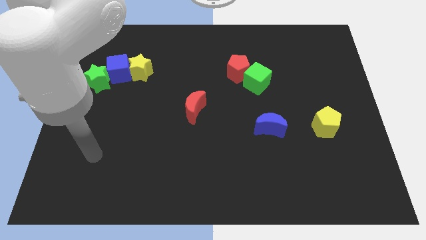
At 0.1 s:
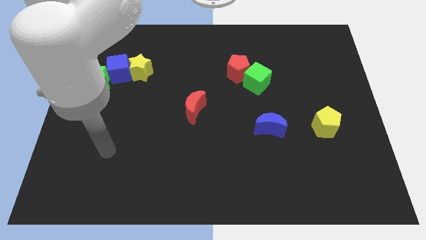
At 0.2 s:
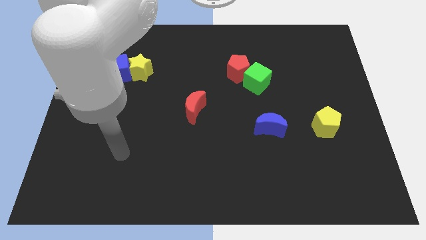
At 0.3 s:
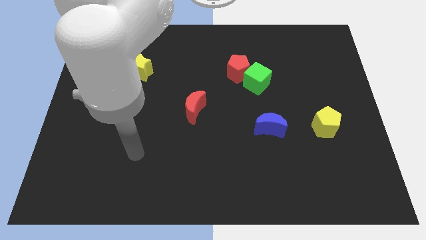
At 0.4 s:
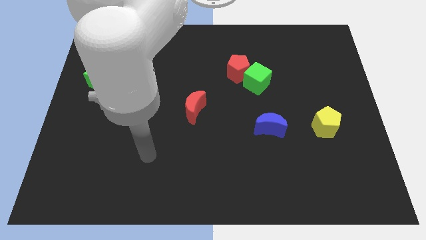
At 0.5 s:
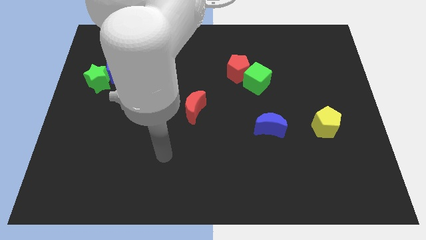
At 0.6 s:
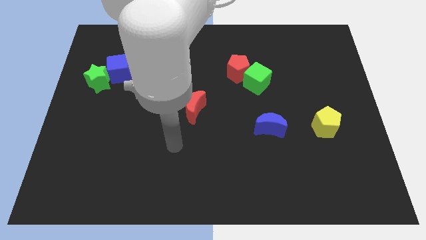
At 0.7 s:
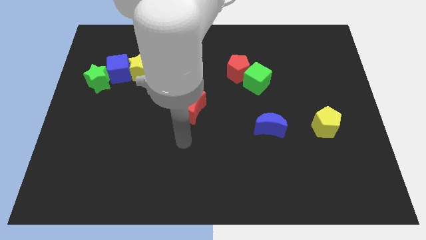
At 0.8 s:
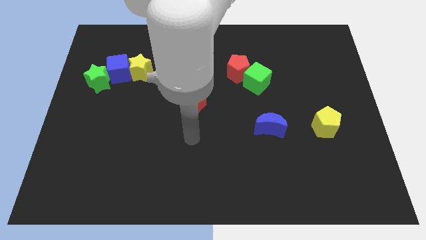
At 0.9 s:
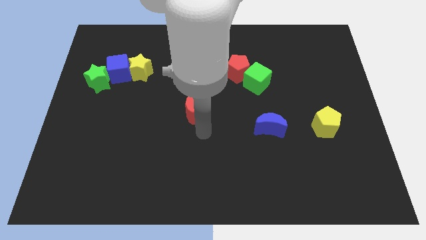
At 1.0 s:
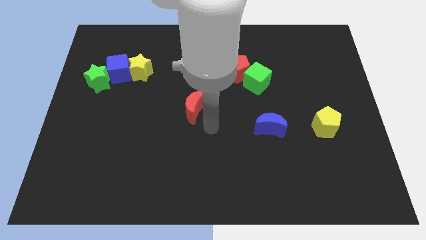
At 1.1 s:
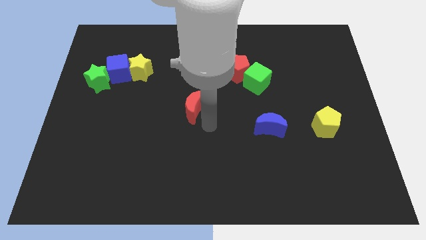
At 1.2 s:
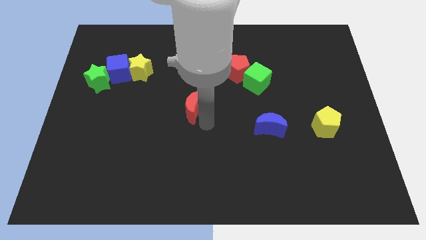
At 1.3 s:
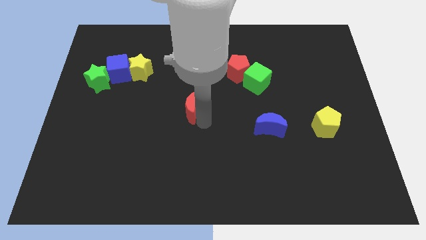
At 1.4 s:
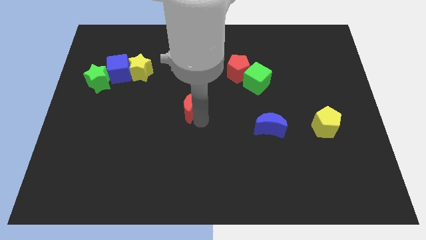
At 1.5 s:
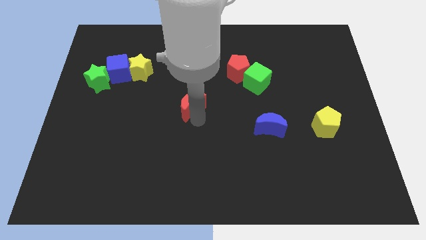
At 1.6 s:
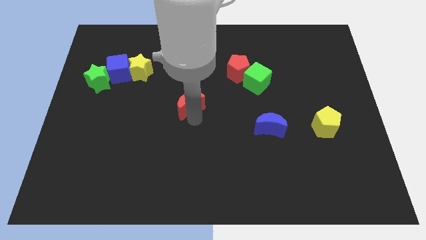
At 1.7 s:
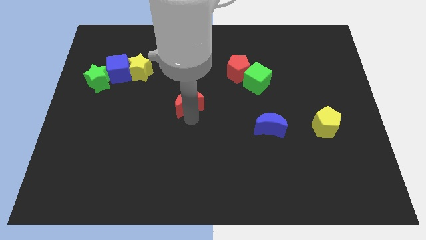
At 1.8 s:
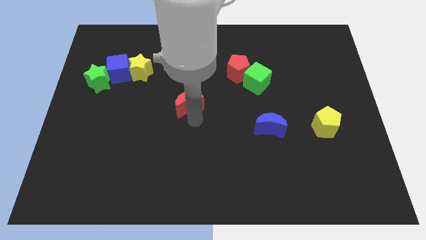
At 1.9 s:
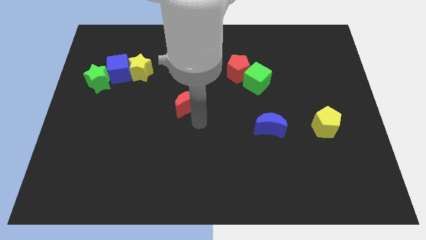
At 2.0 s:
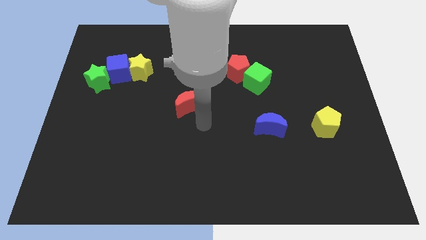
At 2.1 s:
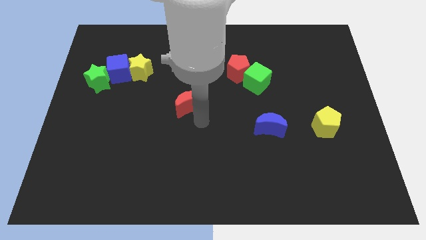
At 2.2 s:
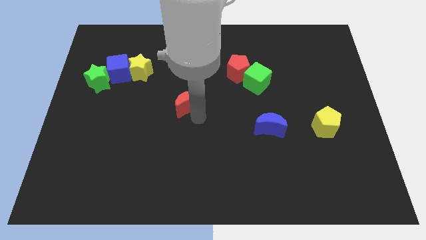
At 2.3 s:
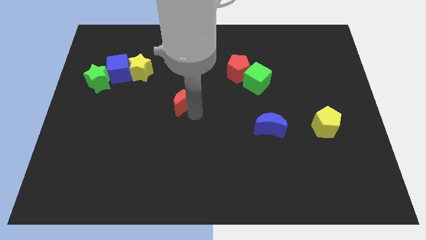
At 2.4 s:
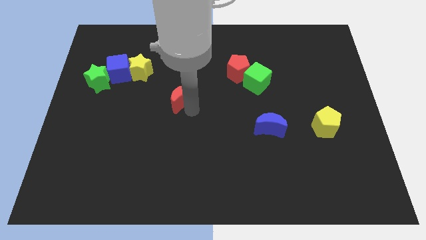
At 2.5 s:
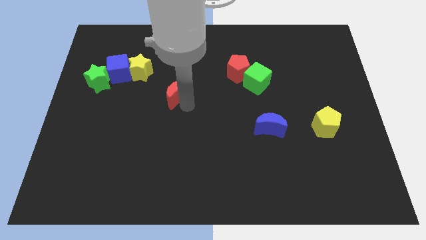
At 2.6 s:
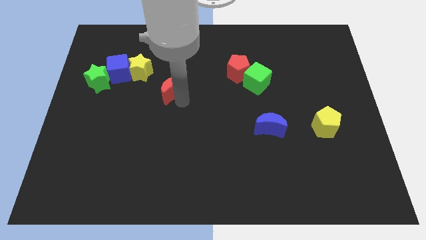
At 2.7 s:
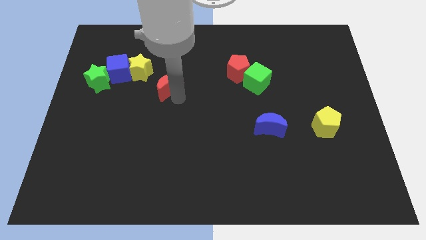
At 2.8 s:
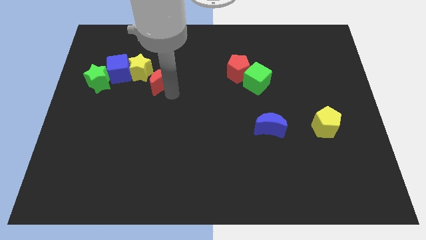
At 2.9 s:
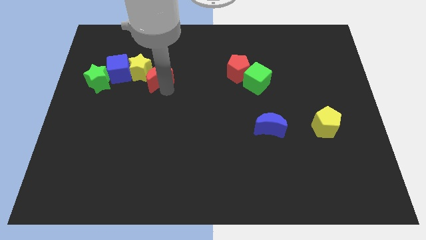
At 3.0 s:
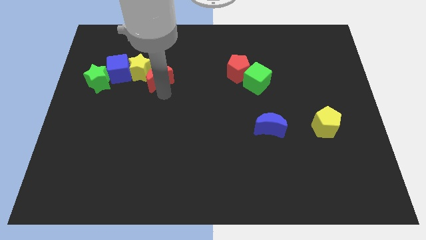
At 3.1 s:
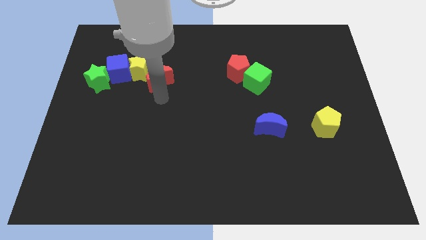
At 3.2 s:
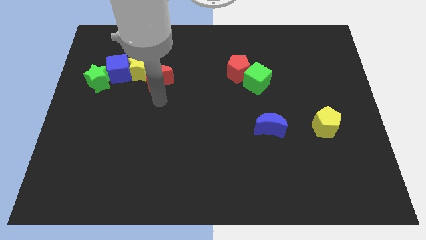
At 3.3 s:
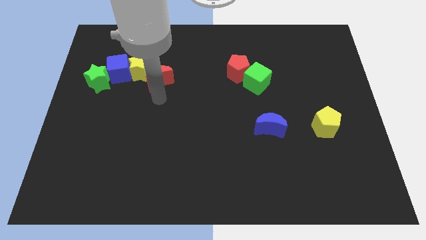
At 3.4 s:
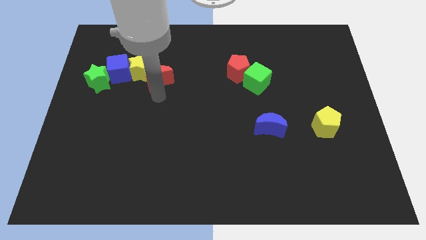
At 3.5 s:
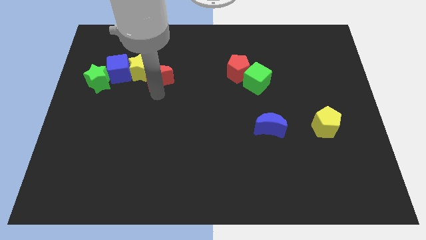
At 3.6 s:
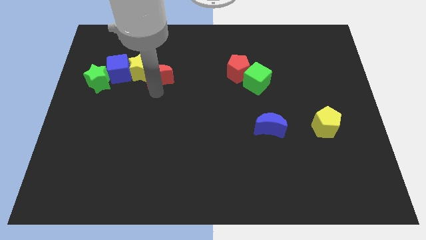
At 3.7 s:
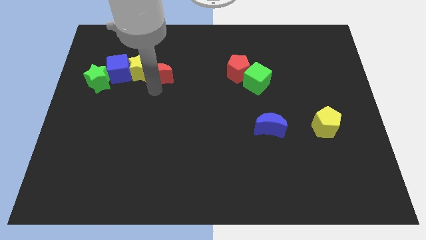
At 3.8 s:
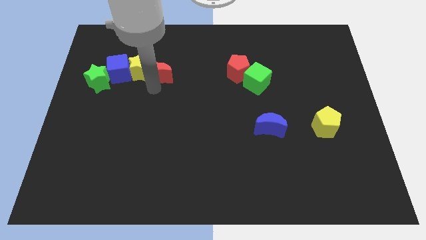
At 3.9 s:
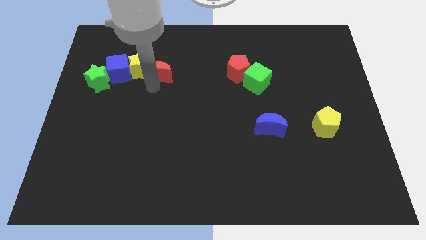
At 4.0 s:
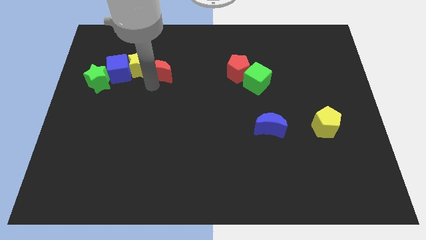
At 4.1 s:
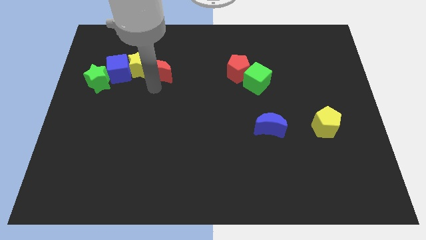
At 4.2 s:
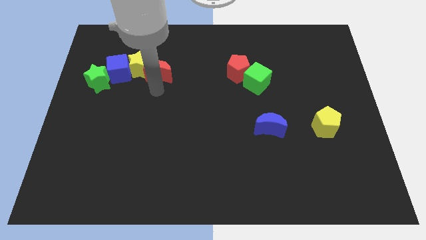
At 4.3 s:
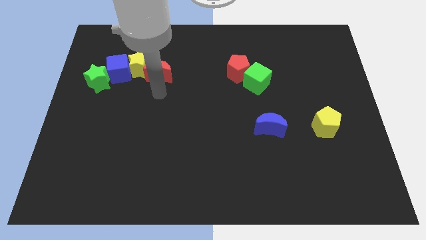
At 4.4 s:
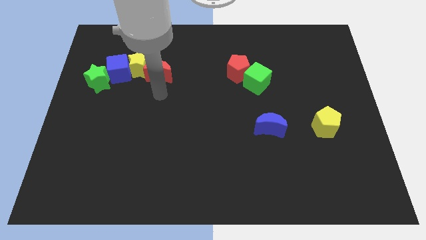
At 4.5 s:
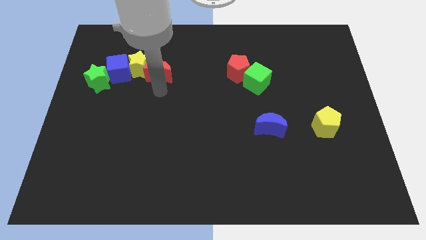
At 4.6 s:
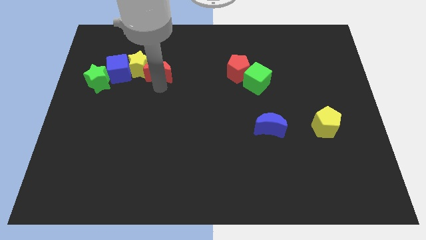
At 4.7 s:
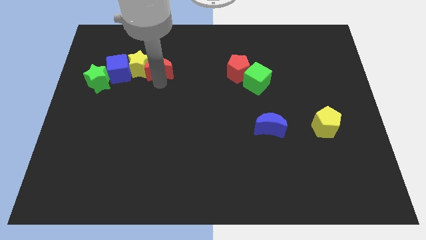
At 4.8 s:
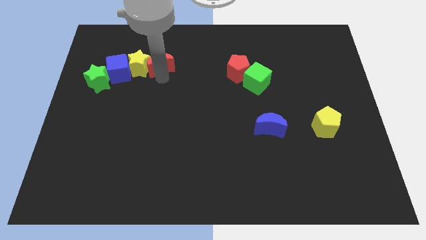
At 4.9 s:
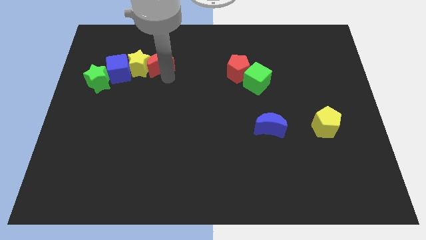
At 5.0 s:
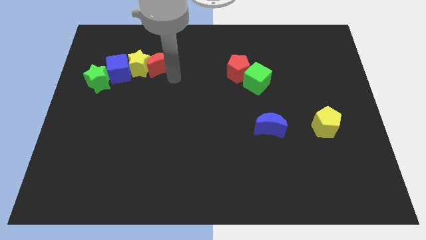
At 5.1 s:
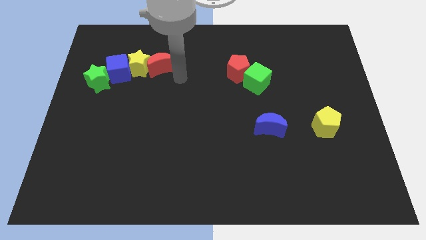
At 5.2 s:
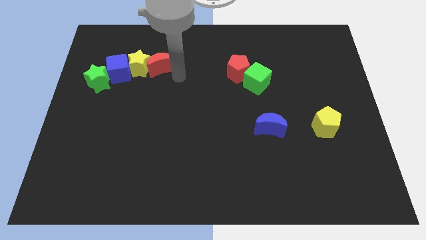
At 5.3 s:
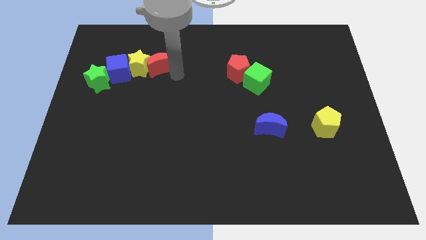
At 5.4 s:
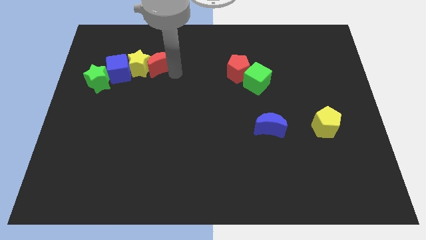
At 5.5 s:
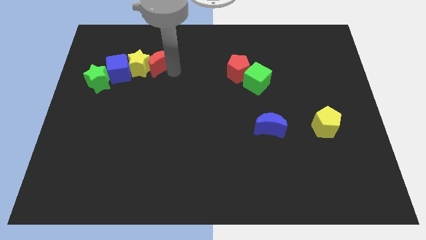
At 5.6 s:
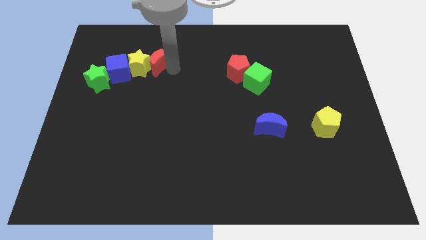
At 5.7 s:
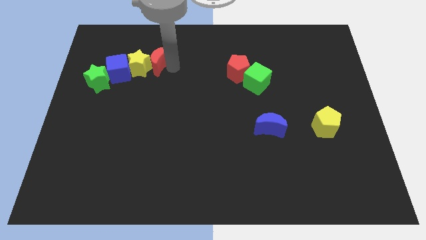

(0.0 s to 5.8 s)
slide the red moon diagonally up and to the right of the blue cube

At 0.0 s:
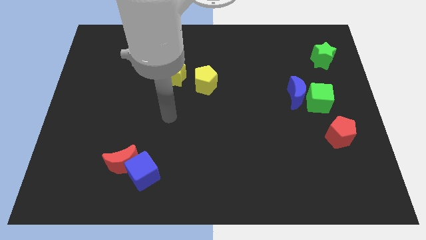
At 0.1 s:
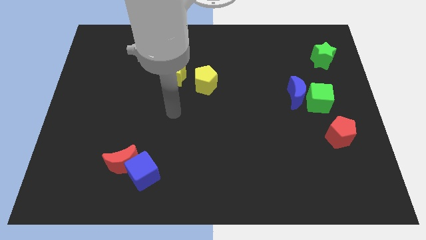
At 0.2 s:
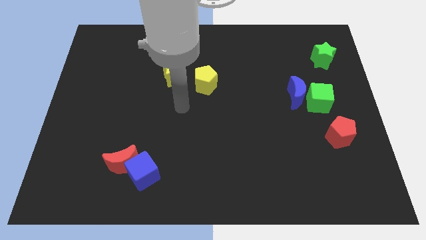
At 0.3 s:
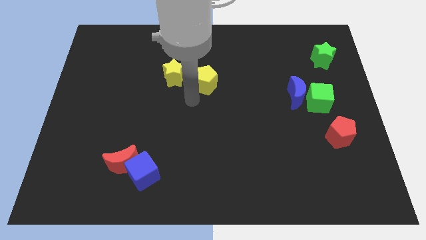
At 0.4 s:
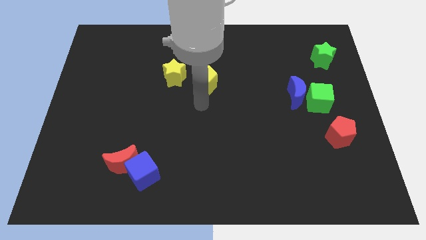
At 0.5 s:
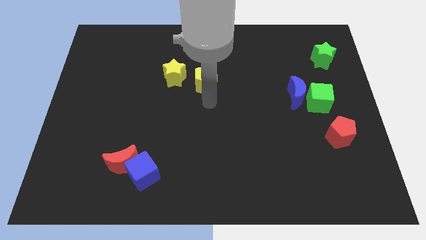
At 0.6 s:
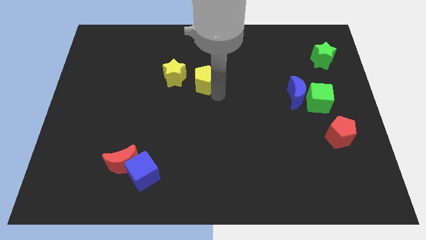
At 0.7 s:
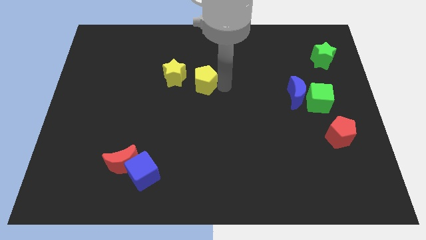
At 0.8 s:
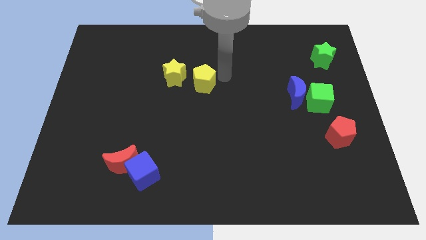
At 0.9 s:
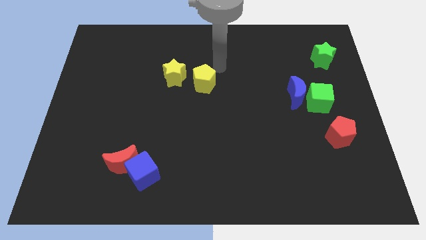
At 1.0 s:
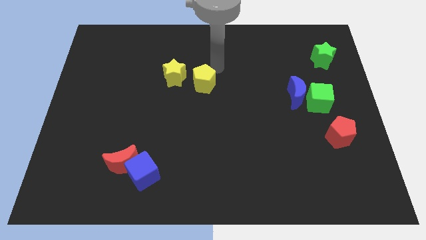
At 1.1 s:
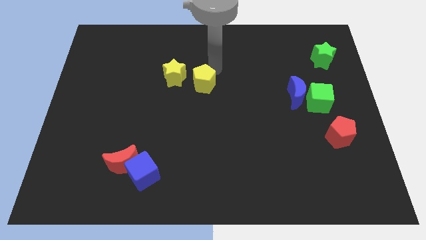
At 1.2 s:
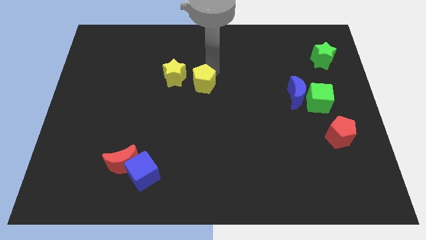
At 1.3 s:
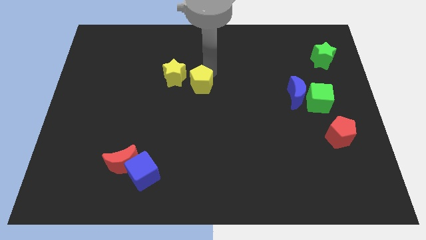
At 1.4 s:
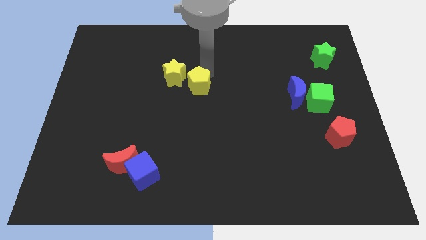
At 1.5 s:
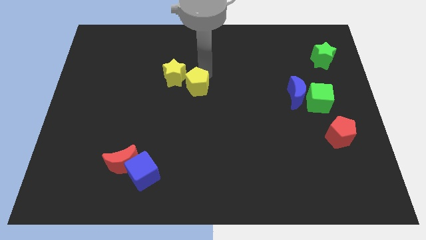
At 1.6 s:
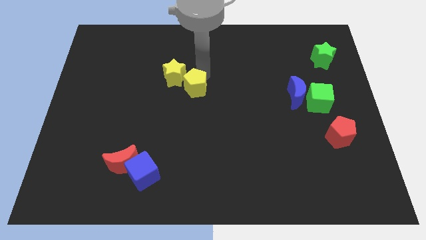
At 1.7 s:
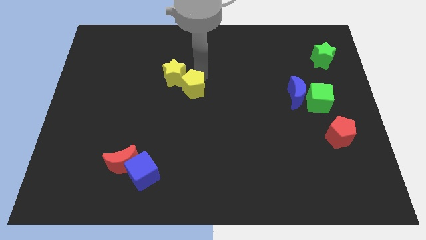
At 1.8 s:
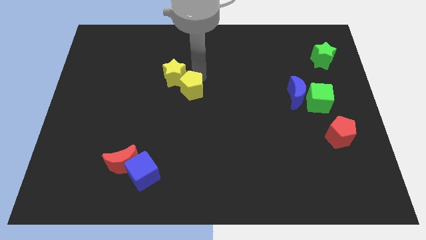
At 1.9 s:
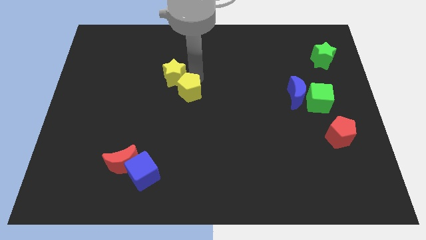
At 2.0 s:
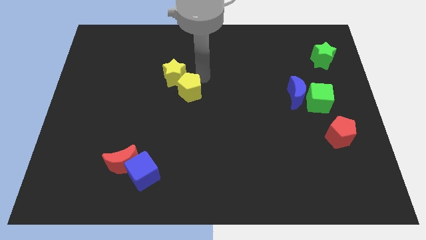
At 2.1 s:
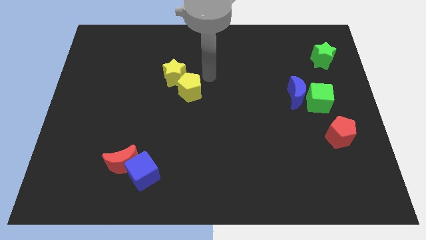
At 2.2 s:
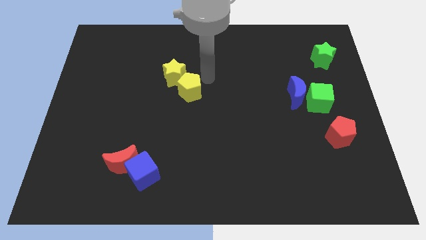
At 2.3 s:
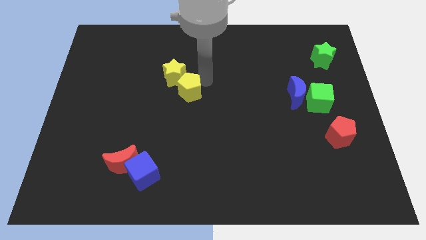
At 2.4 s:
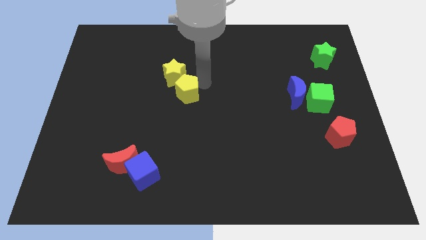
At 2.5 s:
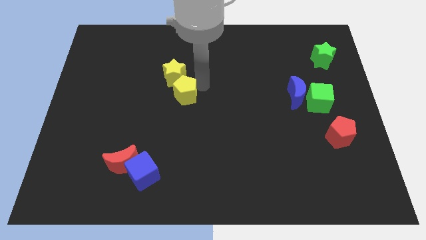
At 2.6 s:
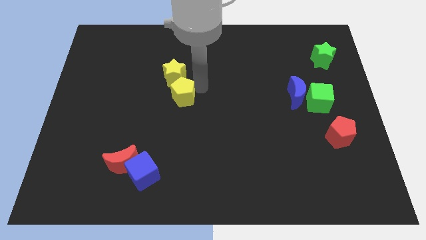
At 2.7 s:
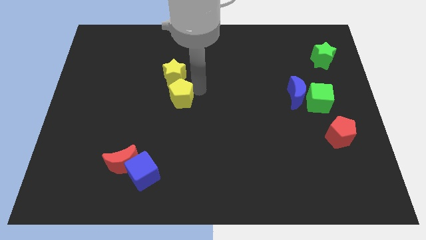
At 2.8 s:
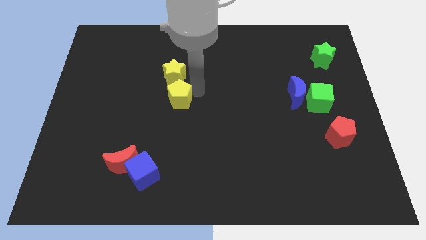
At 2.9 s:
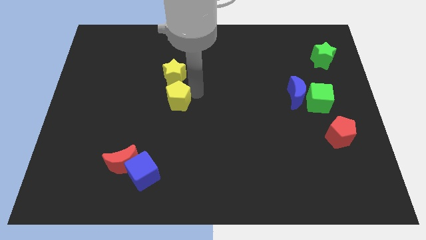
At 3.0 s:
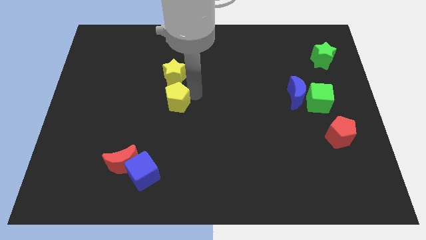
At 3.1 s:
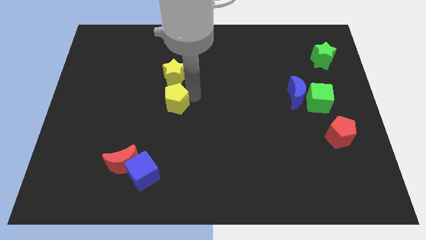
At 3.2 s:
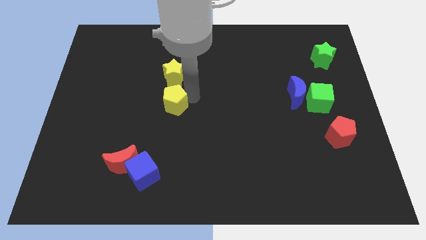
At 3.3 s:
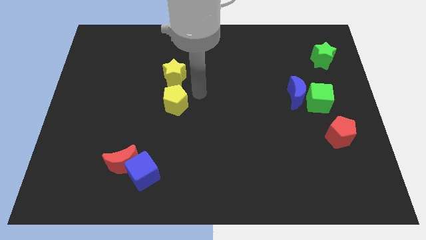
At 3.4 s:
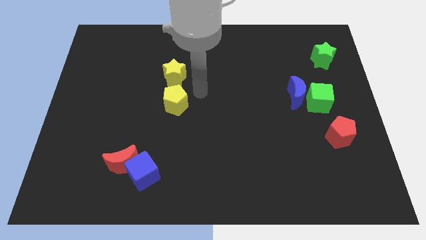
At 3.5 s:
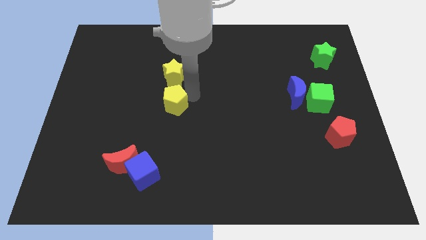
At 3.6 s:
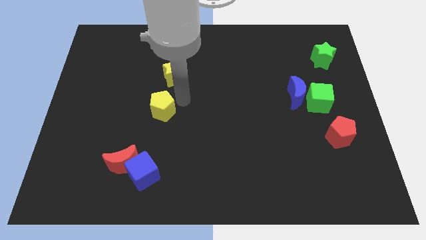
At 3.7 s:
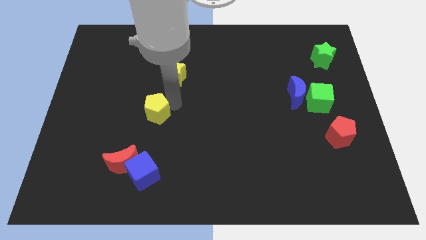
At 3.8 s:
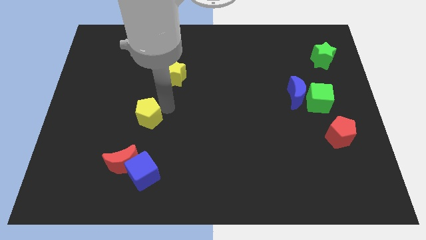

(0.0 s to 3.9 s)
slide the yellow pentagon to the top side of the red moon
